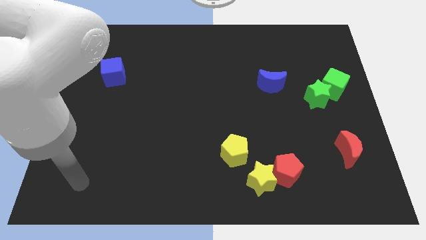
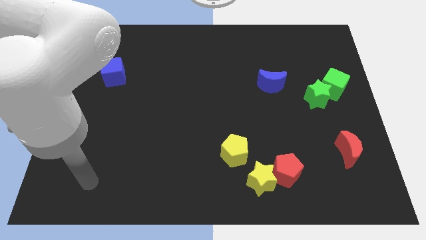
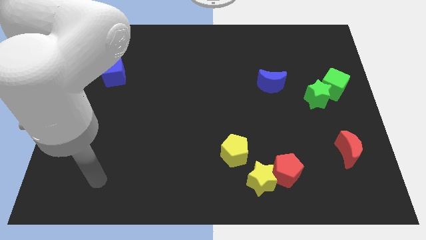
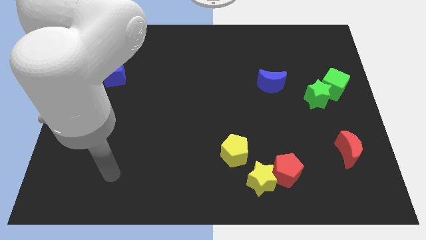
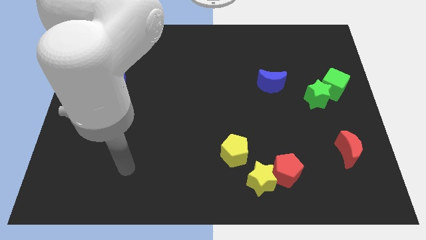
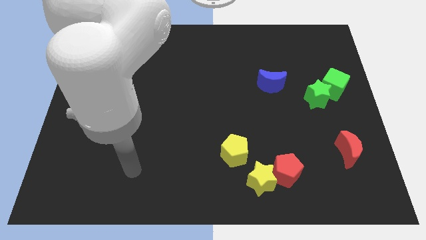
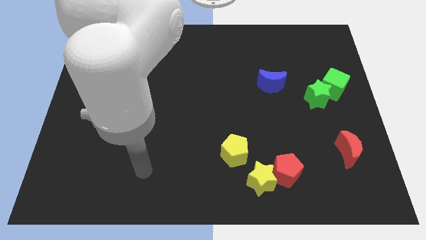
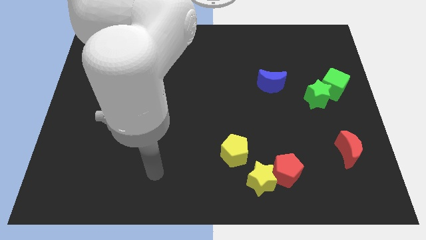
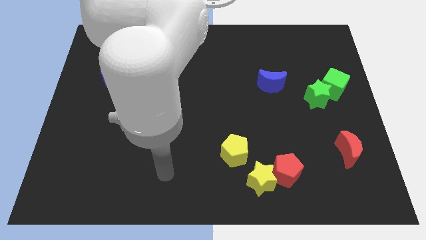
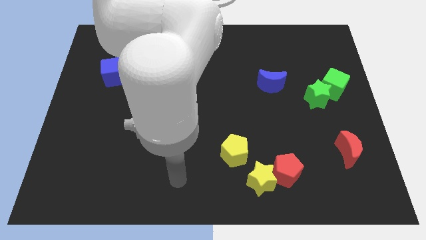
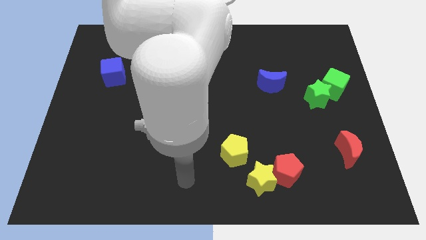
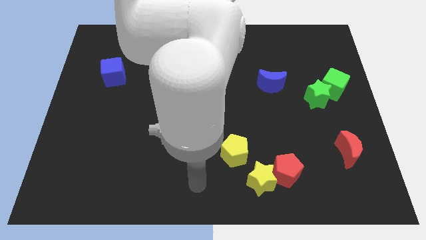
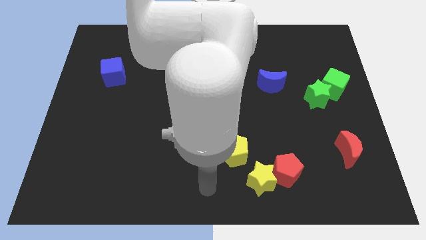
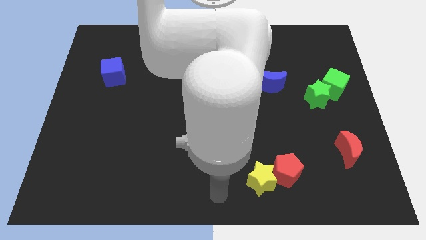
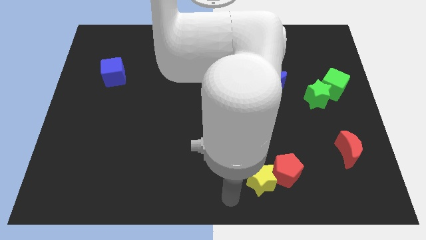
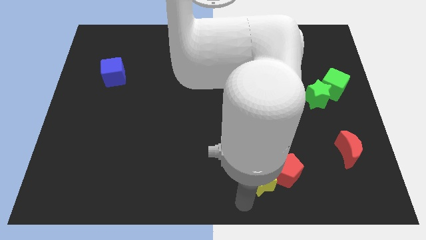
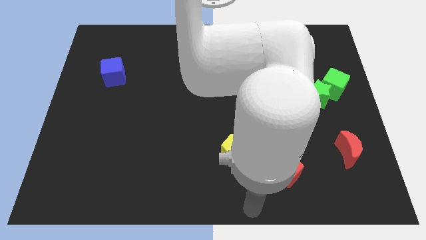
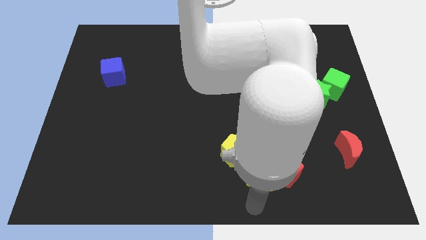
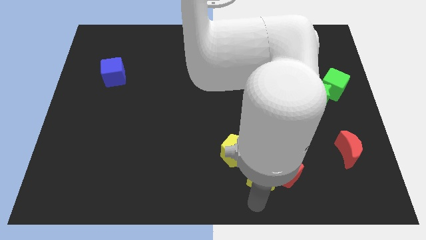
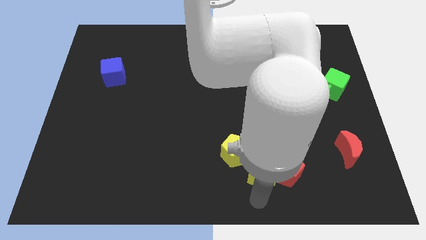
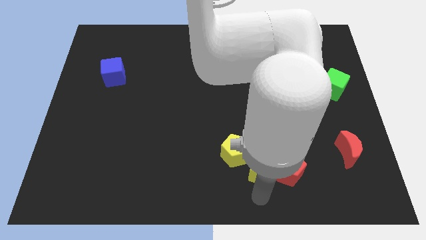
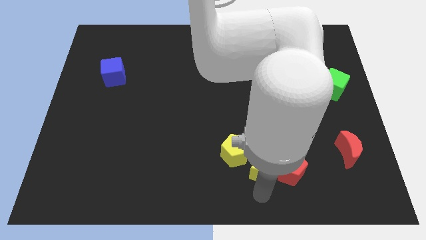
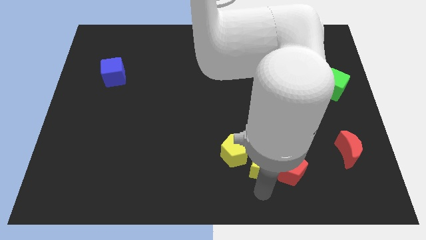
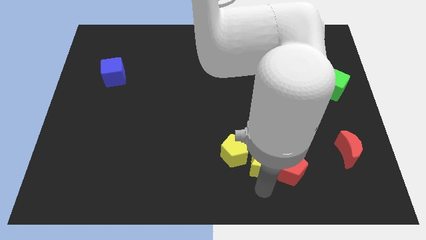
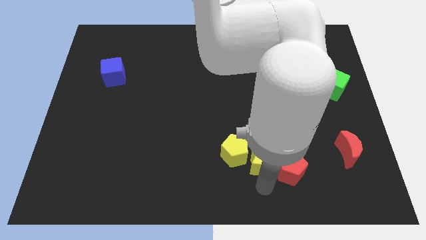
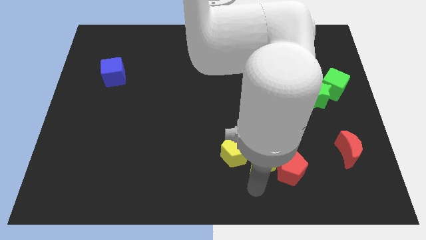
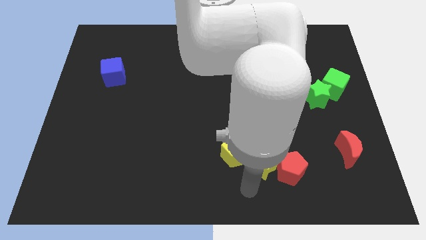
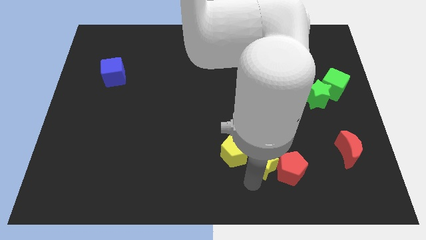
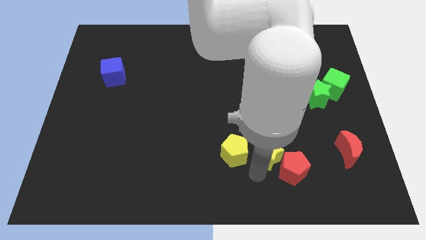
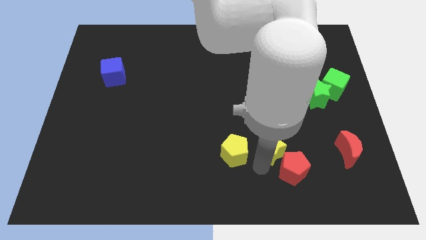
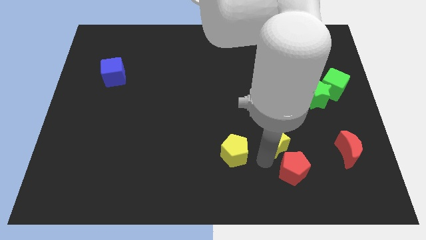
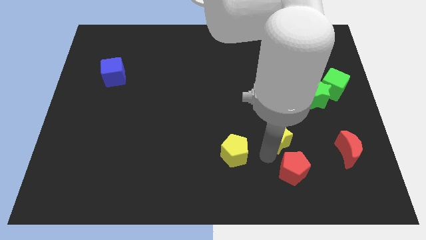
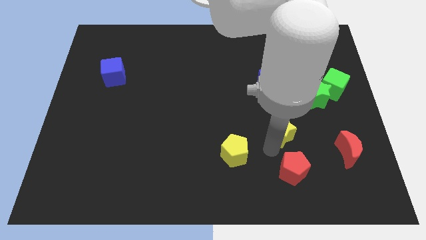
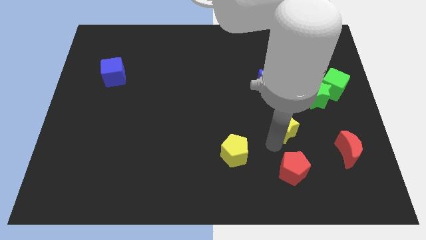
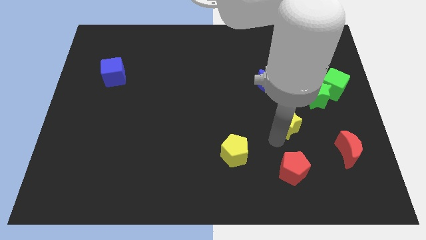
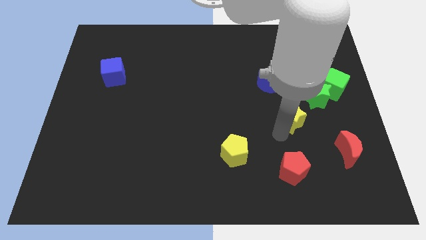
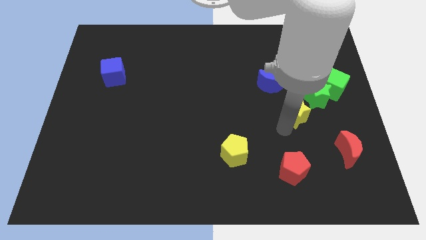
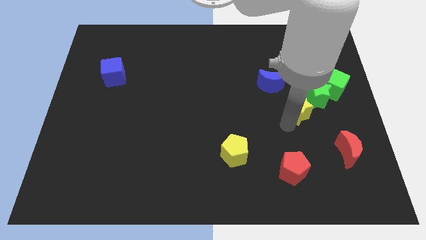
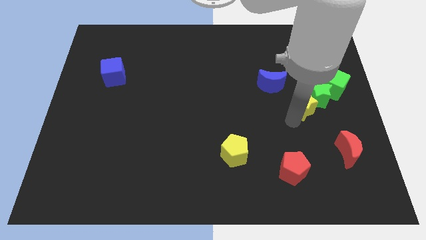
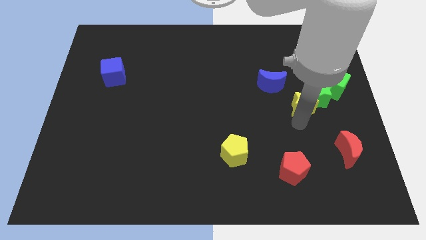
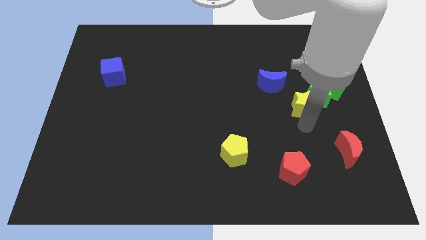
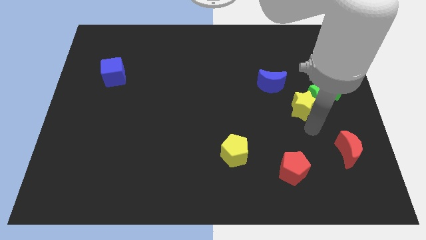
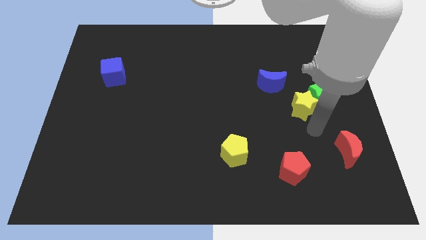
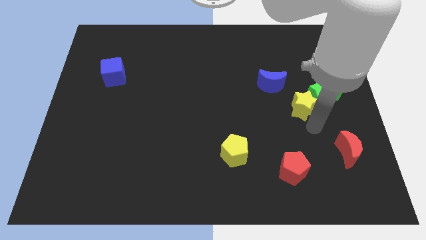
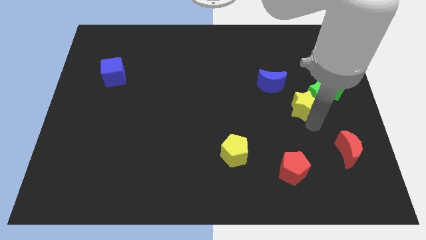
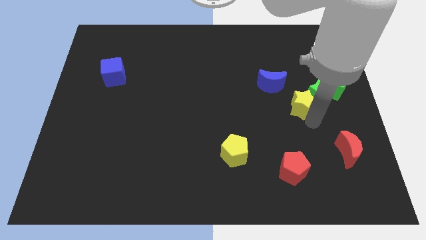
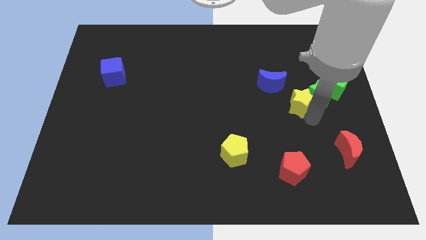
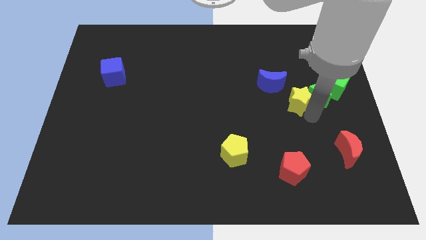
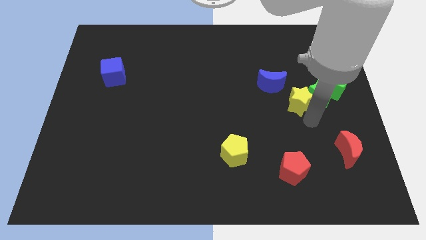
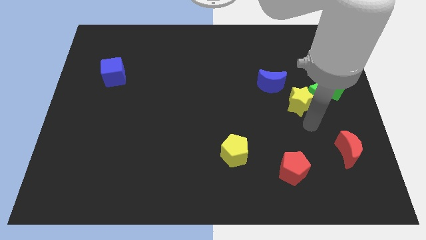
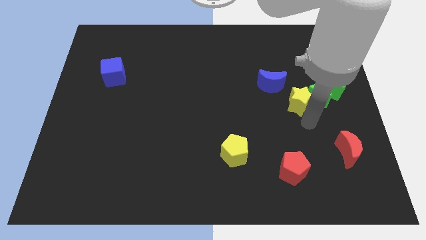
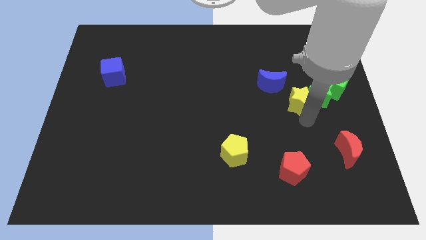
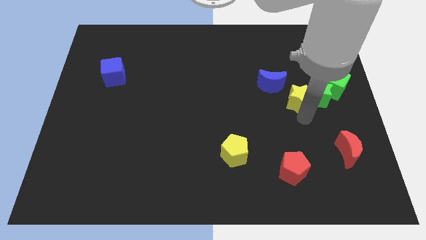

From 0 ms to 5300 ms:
push the yellow star to the left of the green cube

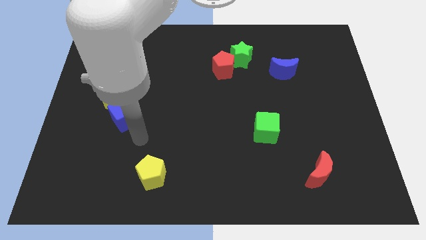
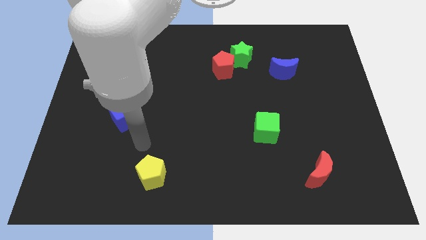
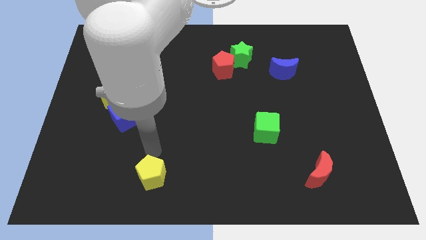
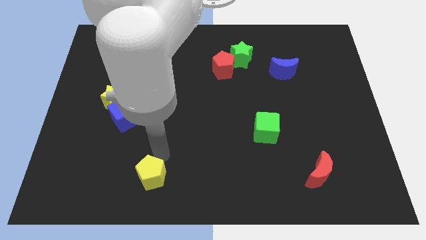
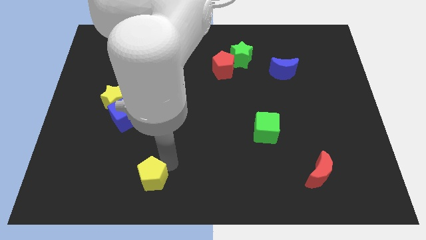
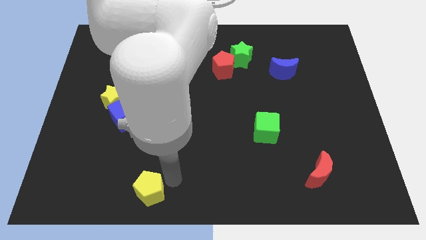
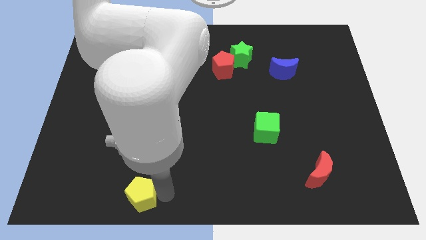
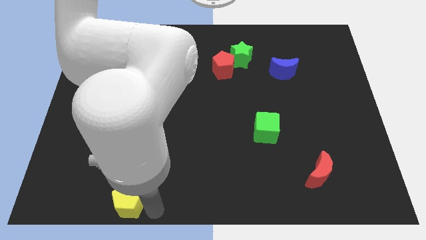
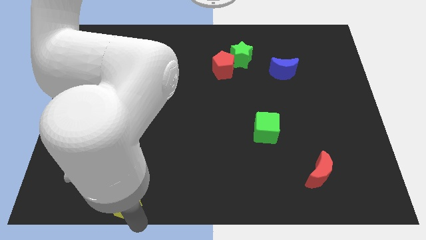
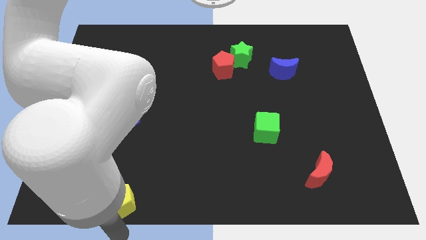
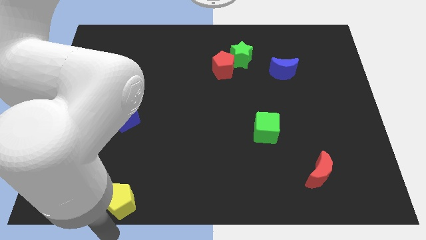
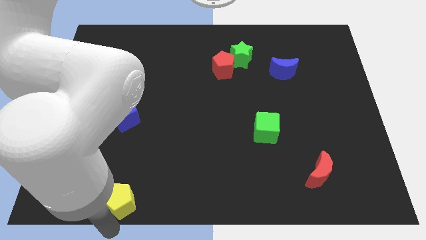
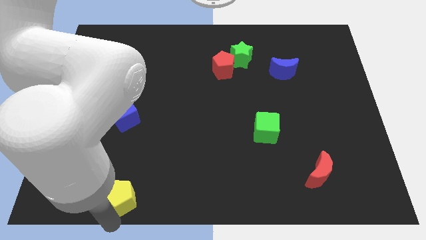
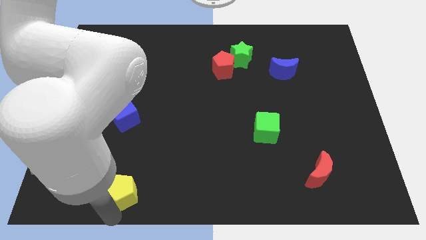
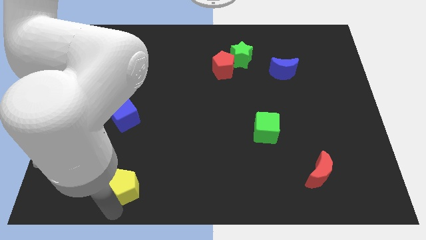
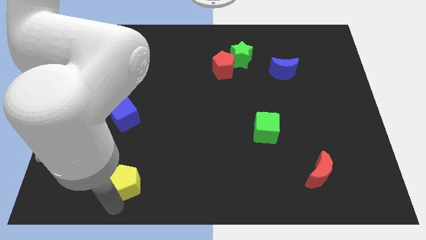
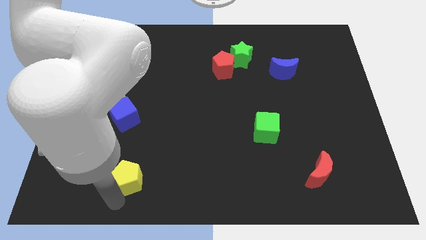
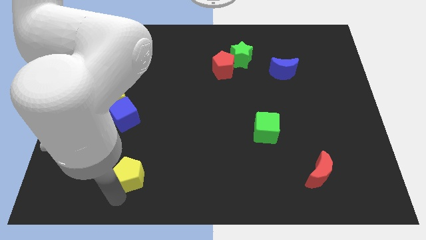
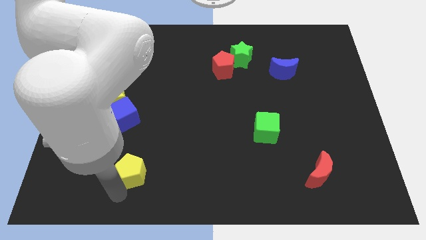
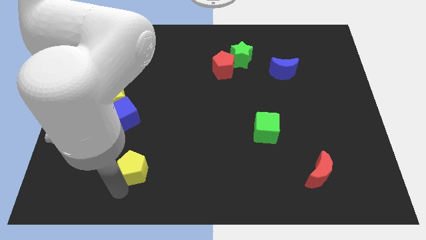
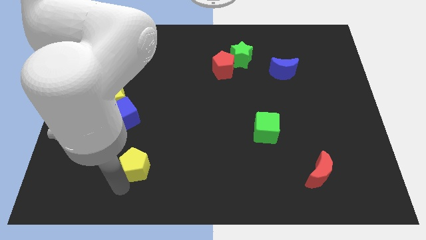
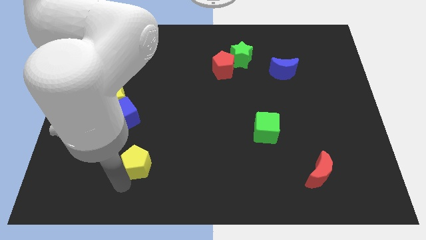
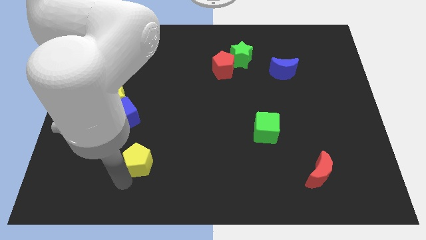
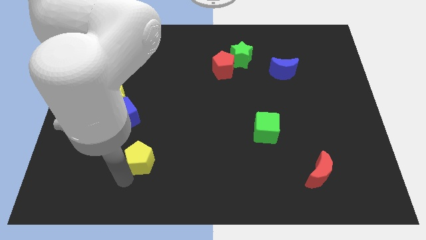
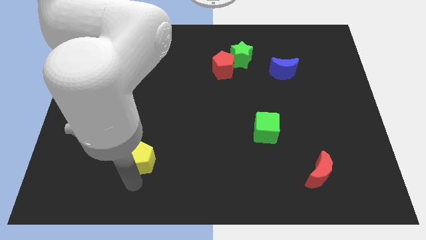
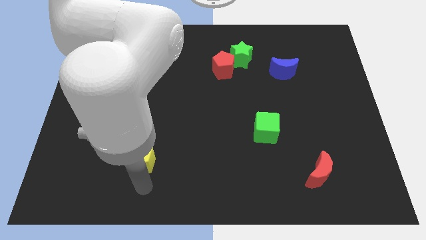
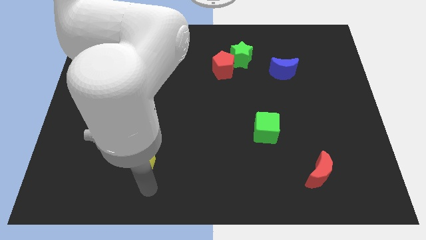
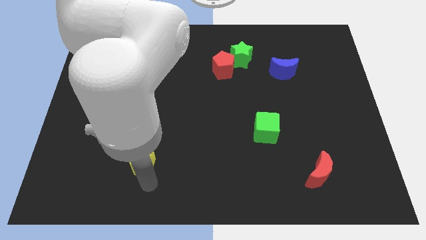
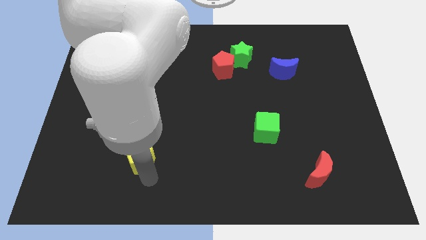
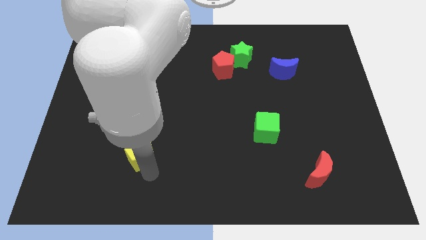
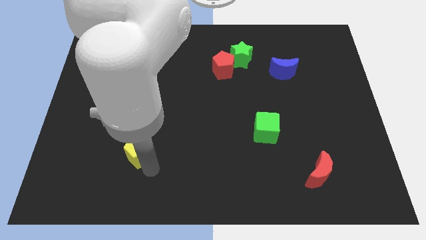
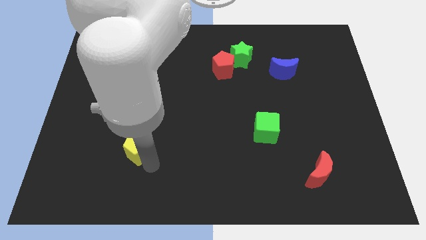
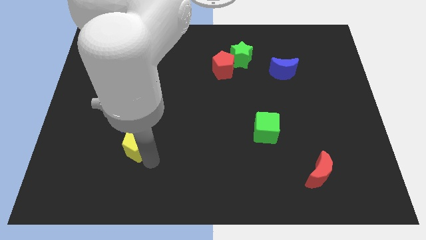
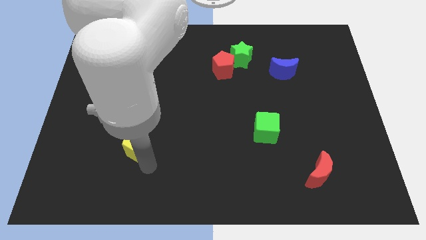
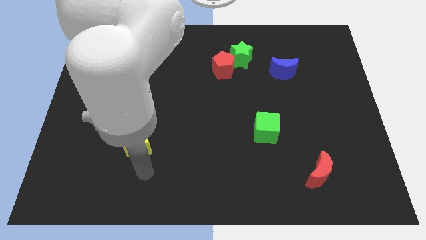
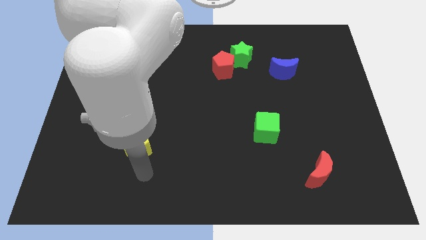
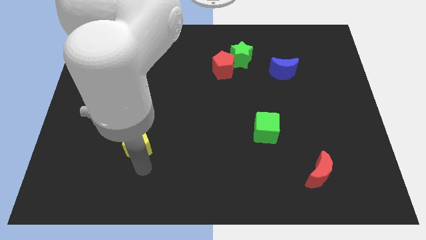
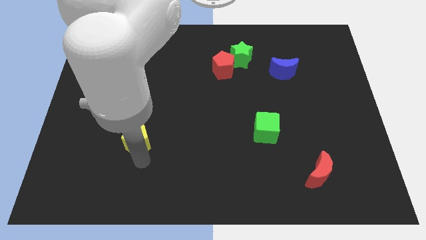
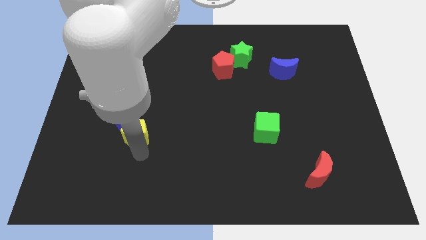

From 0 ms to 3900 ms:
push the yellow pentagon to the bottom right of the yellow star
